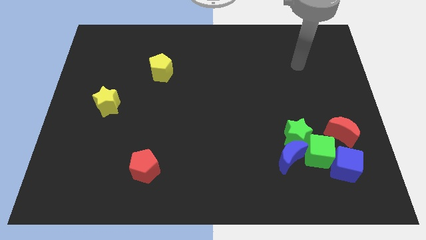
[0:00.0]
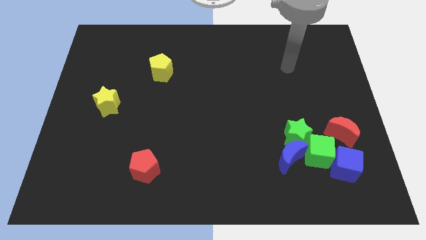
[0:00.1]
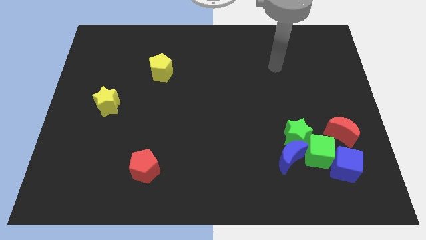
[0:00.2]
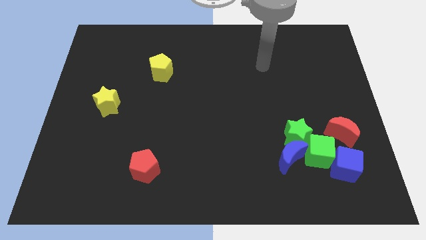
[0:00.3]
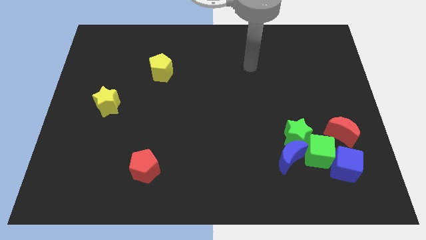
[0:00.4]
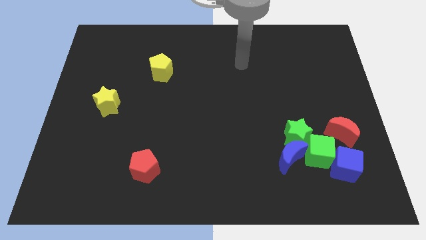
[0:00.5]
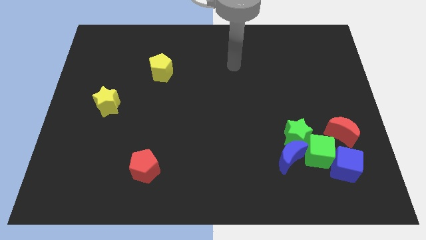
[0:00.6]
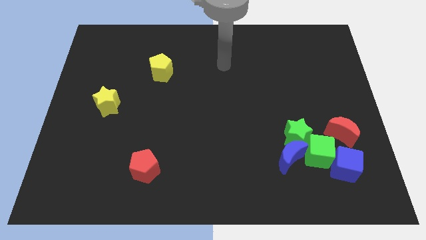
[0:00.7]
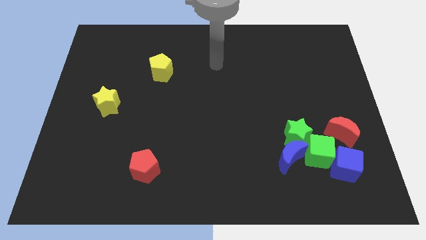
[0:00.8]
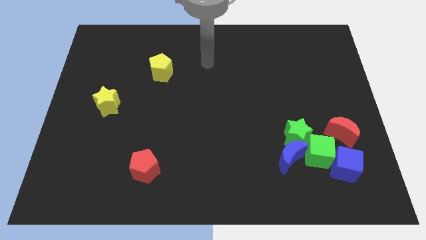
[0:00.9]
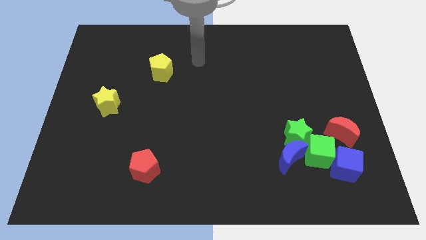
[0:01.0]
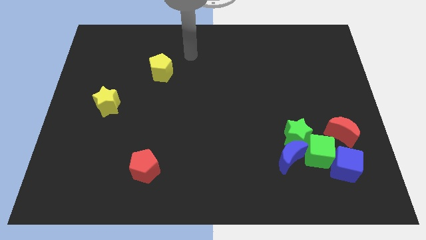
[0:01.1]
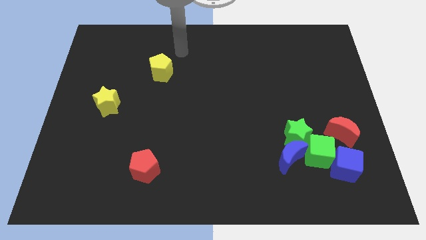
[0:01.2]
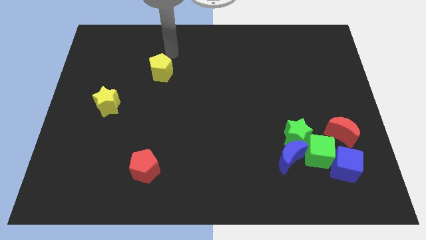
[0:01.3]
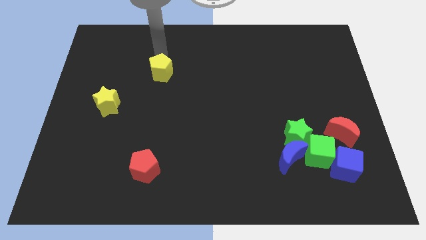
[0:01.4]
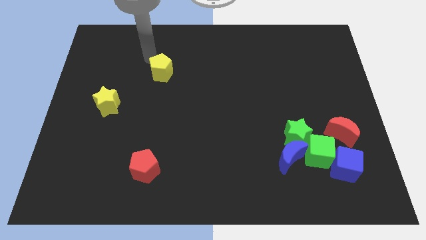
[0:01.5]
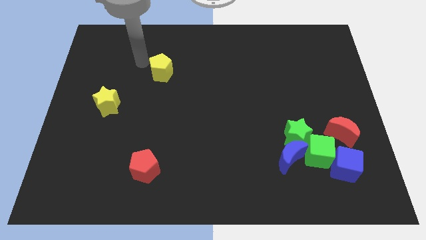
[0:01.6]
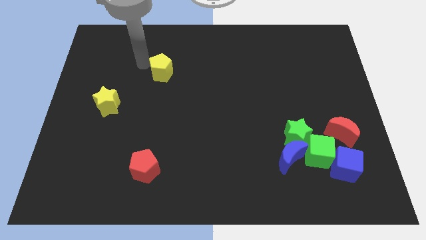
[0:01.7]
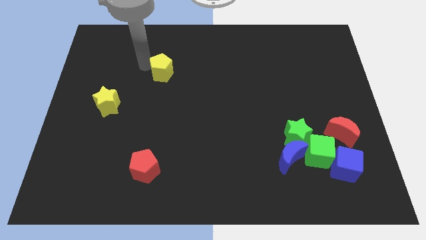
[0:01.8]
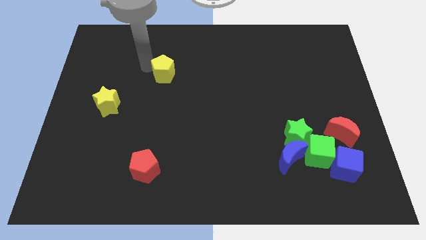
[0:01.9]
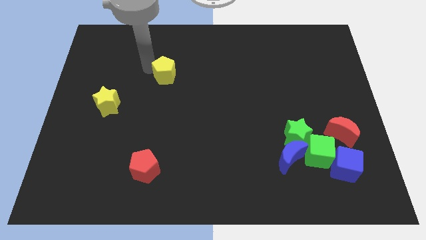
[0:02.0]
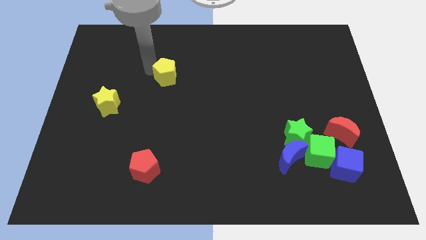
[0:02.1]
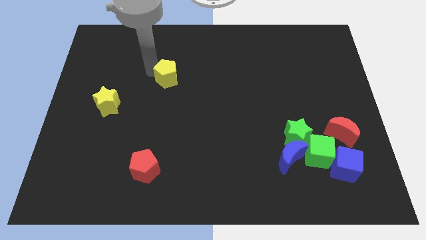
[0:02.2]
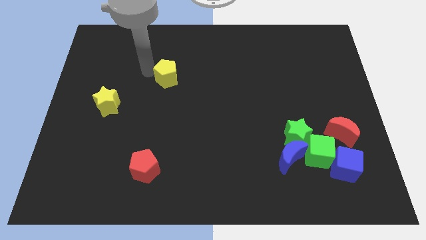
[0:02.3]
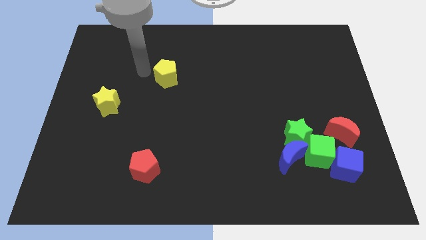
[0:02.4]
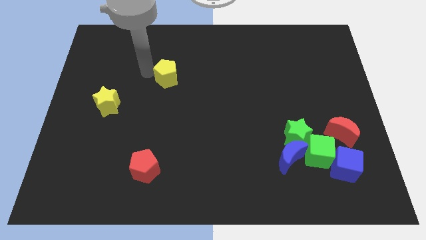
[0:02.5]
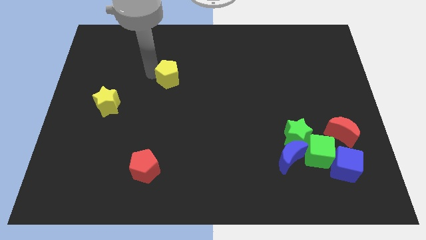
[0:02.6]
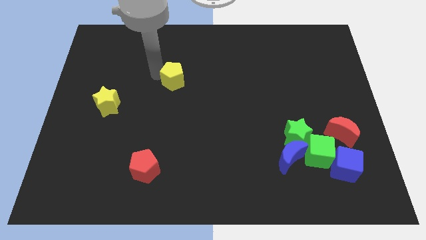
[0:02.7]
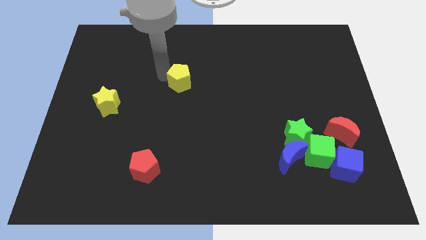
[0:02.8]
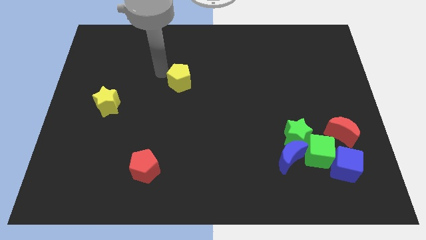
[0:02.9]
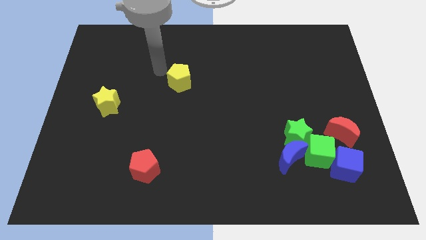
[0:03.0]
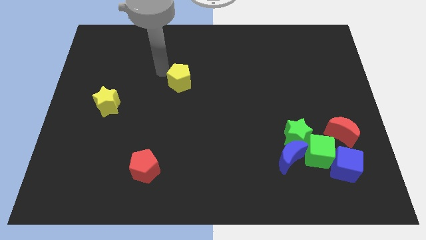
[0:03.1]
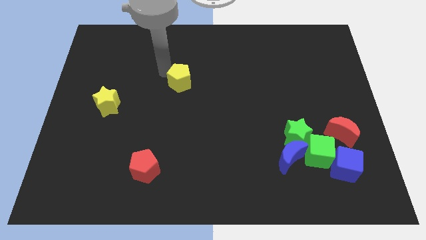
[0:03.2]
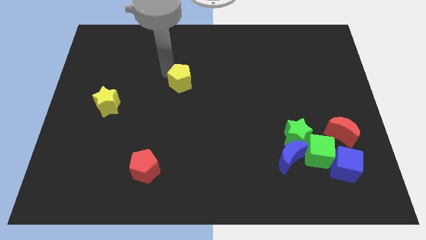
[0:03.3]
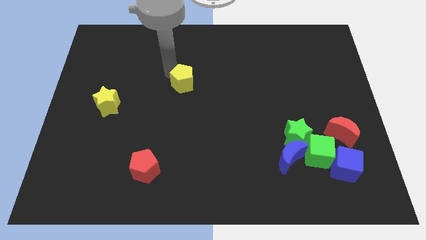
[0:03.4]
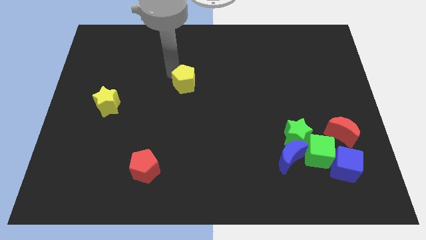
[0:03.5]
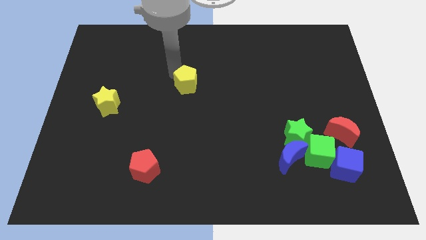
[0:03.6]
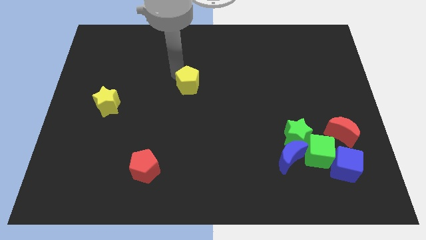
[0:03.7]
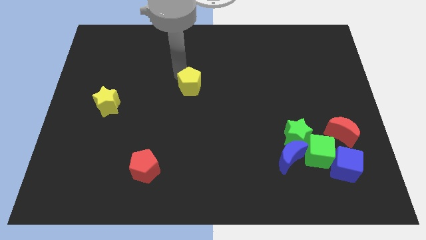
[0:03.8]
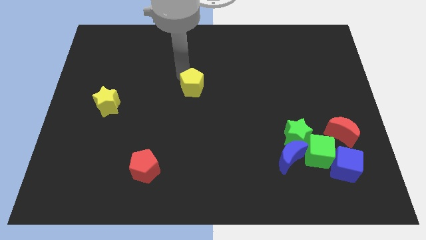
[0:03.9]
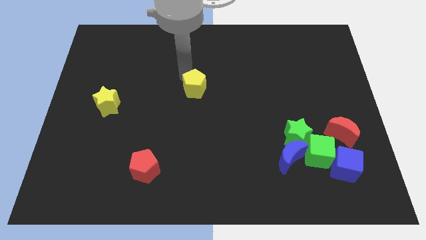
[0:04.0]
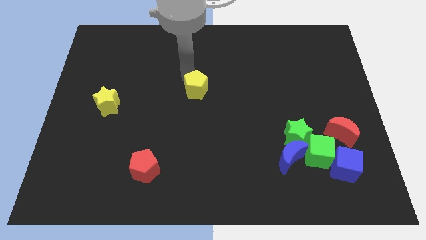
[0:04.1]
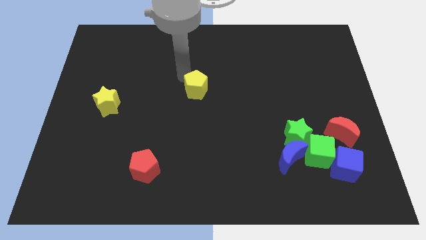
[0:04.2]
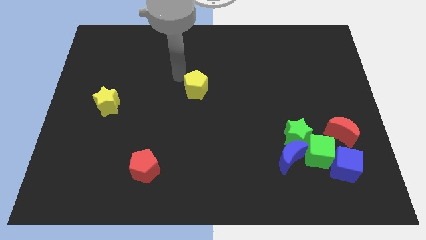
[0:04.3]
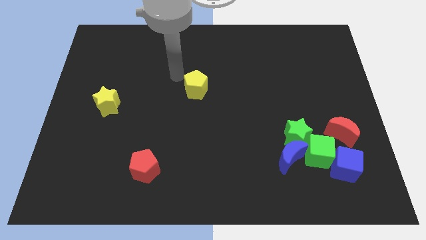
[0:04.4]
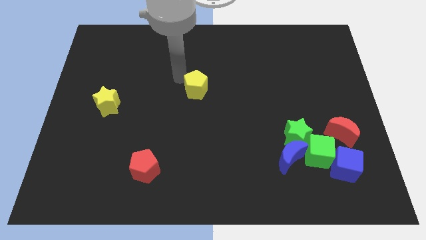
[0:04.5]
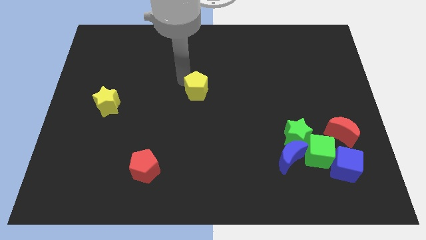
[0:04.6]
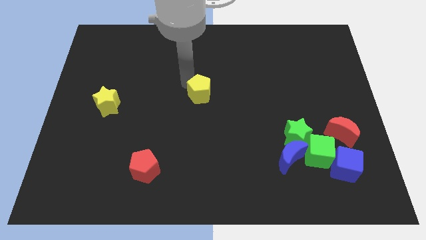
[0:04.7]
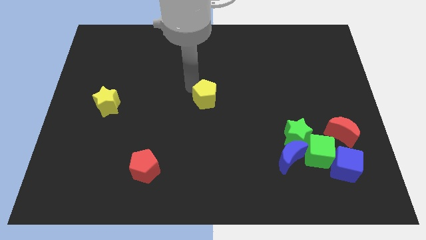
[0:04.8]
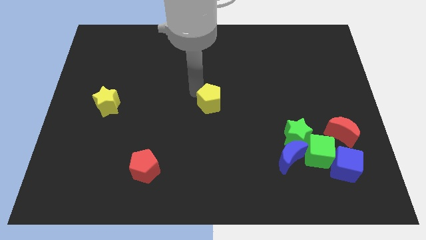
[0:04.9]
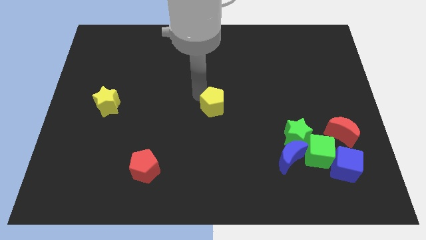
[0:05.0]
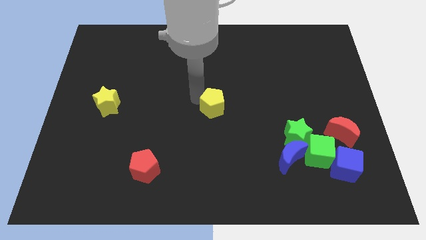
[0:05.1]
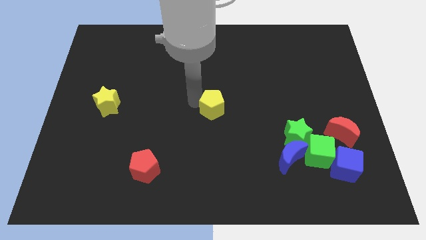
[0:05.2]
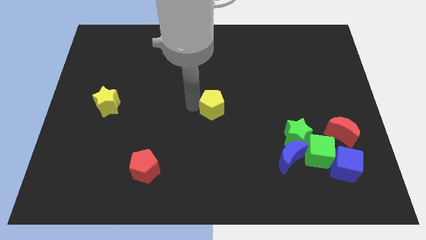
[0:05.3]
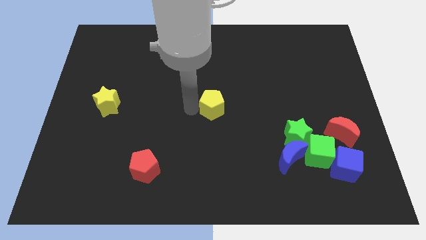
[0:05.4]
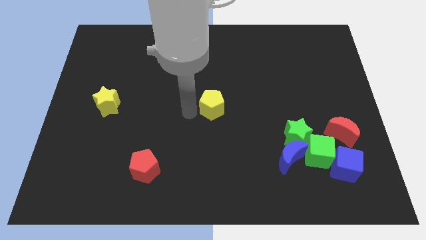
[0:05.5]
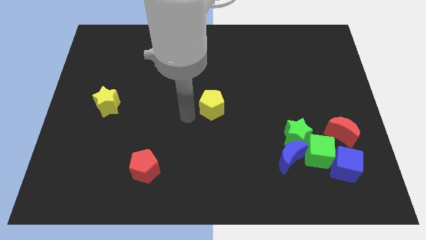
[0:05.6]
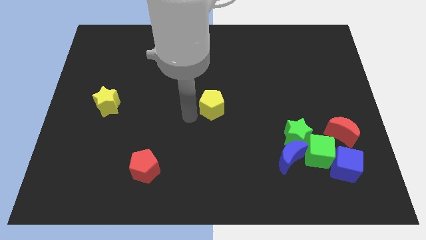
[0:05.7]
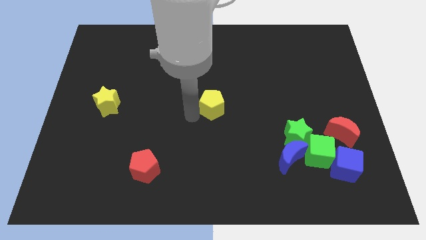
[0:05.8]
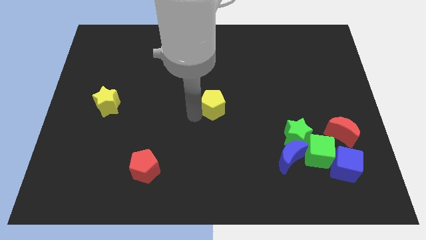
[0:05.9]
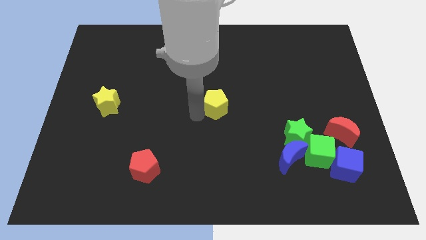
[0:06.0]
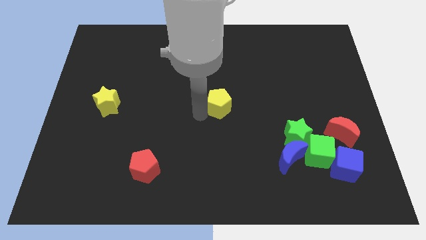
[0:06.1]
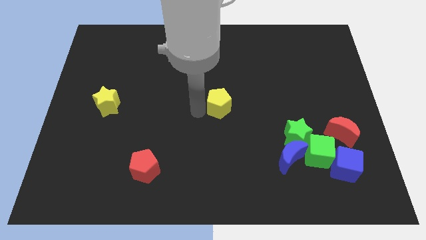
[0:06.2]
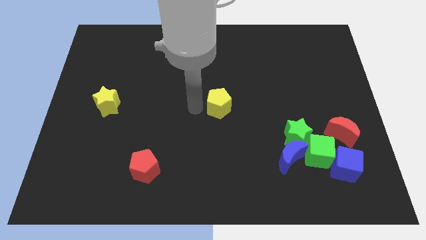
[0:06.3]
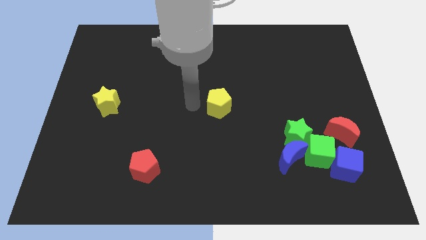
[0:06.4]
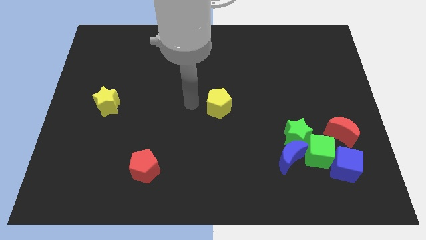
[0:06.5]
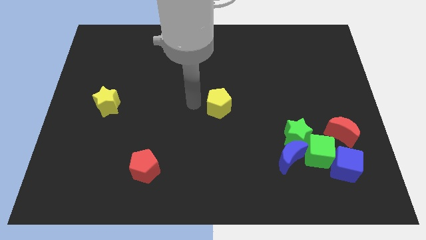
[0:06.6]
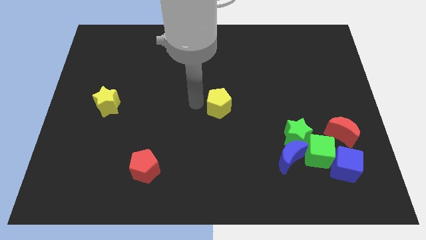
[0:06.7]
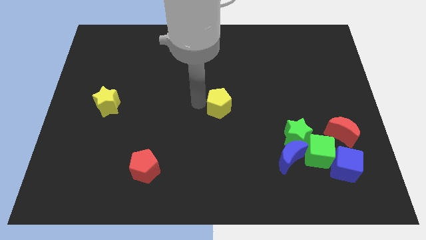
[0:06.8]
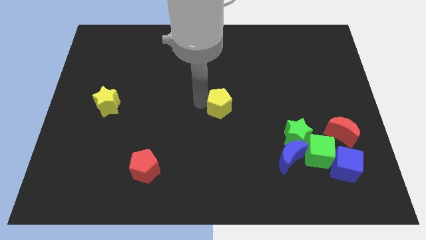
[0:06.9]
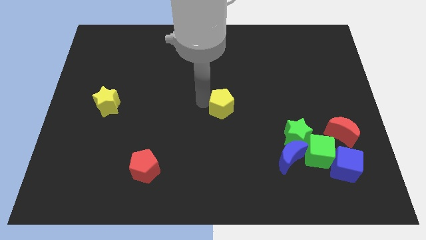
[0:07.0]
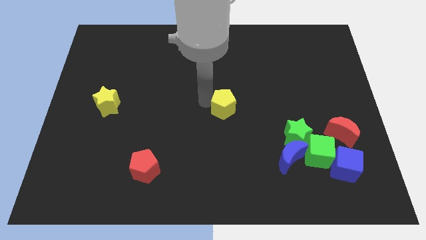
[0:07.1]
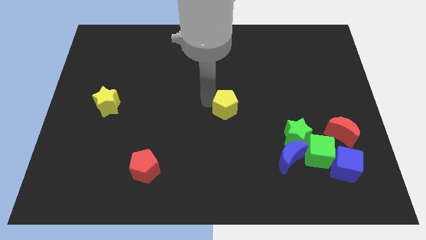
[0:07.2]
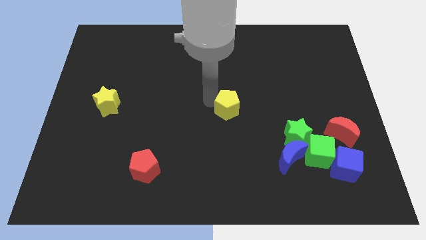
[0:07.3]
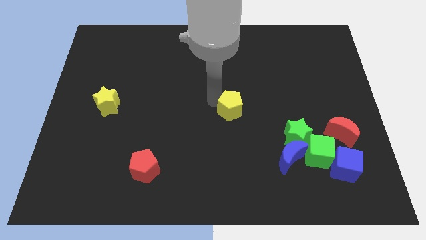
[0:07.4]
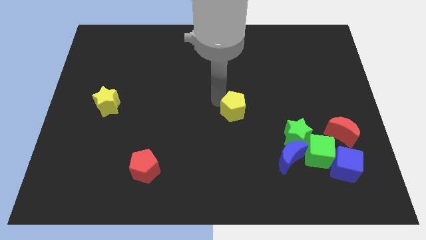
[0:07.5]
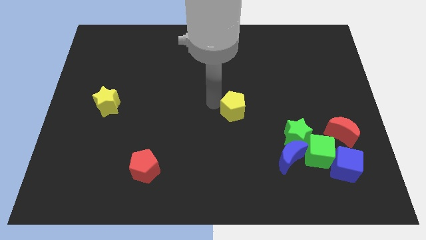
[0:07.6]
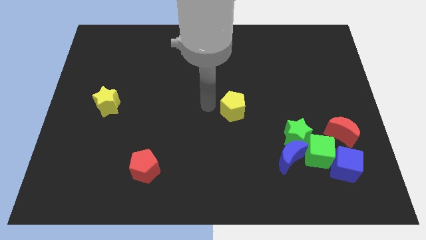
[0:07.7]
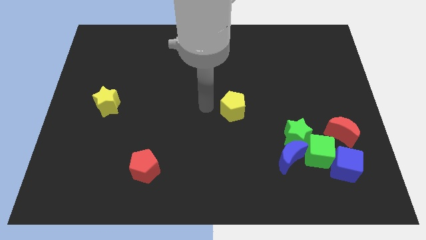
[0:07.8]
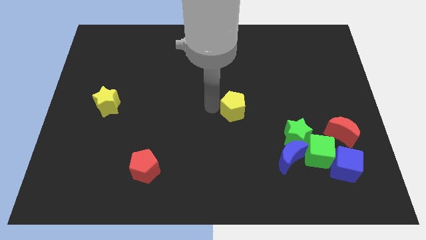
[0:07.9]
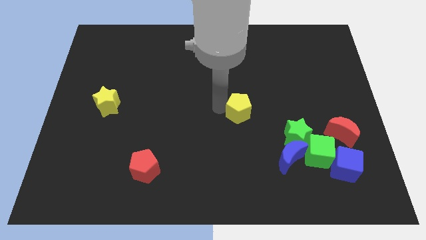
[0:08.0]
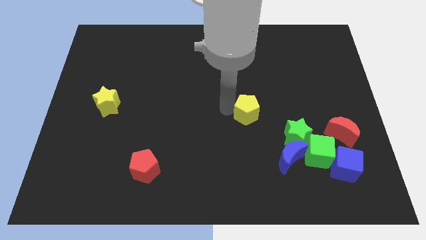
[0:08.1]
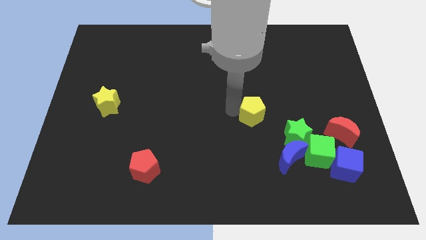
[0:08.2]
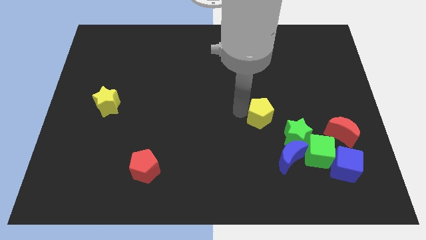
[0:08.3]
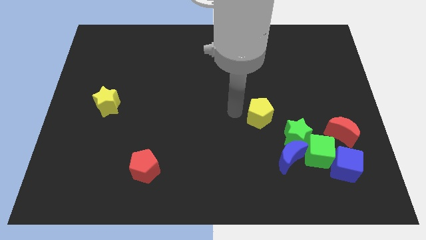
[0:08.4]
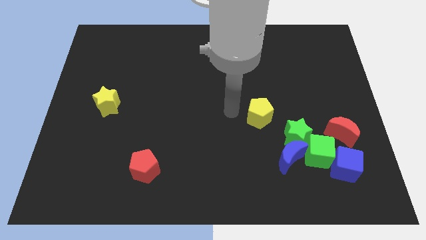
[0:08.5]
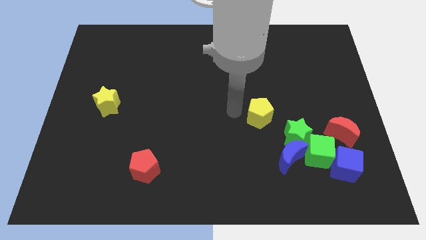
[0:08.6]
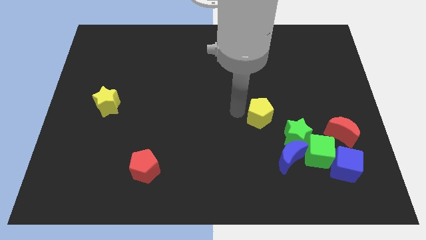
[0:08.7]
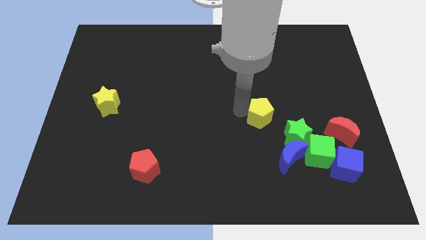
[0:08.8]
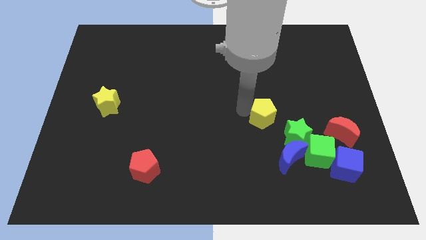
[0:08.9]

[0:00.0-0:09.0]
put the yellow pentagon to the top of the blue moon
